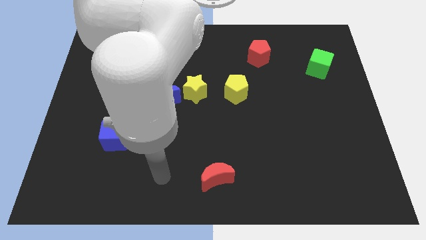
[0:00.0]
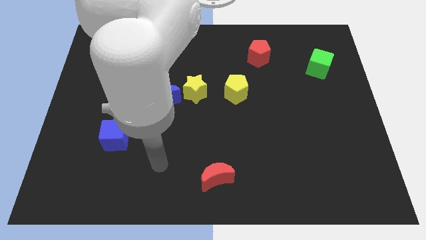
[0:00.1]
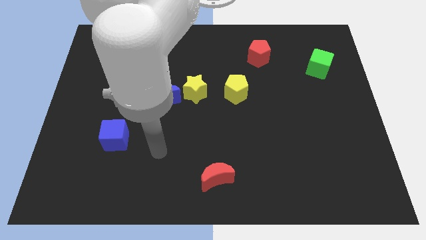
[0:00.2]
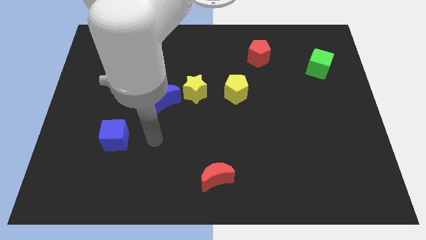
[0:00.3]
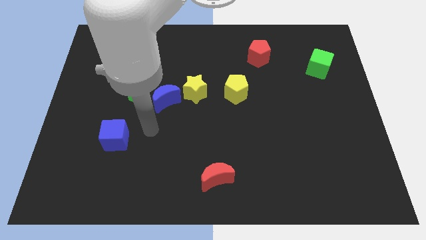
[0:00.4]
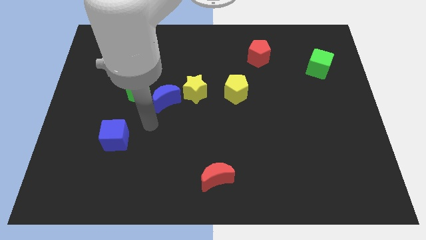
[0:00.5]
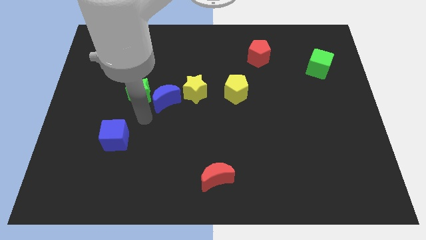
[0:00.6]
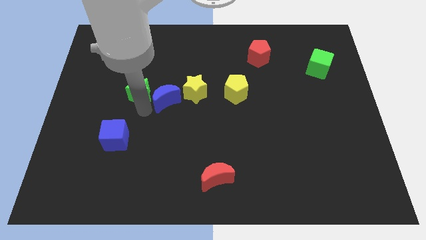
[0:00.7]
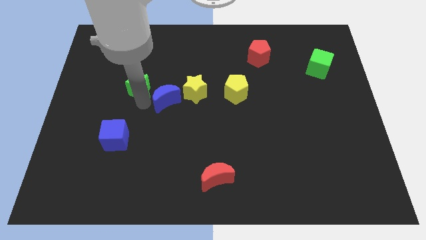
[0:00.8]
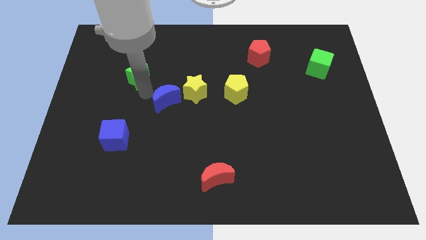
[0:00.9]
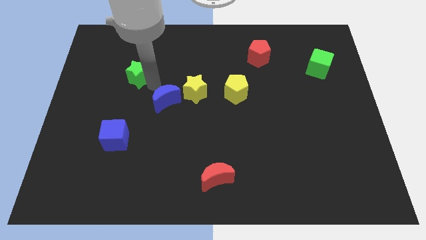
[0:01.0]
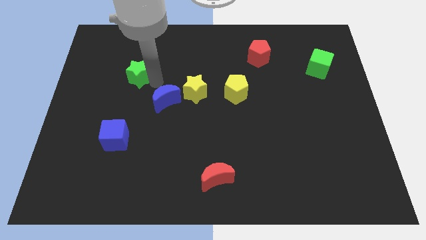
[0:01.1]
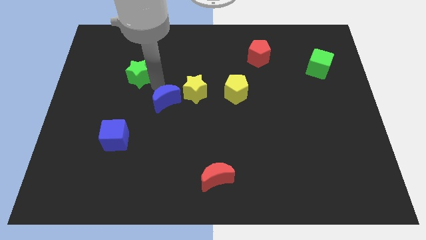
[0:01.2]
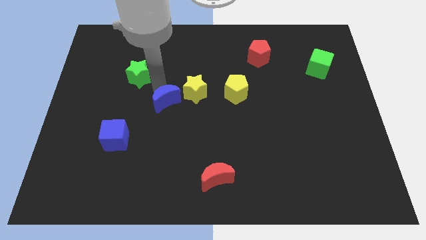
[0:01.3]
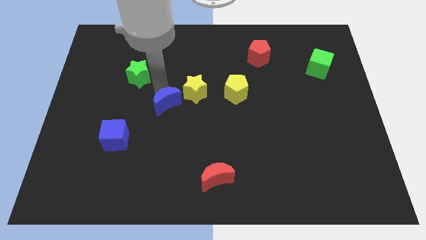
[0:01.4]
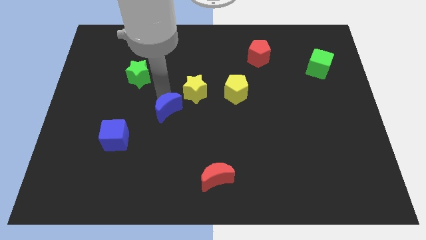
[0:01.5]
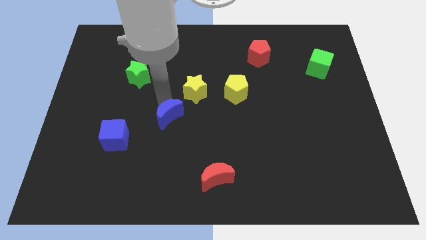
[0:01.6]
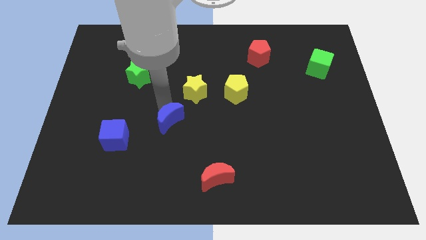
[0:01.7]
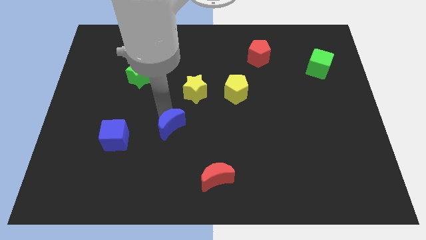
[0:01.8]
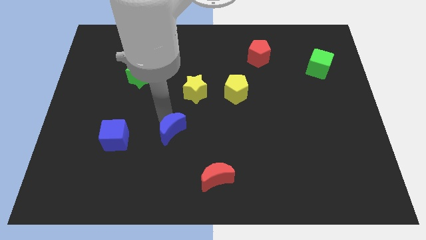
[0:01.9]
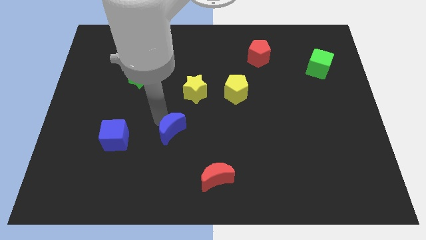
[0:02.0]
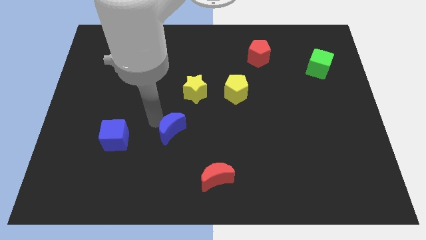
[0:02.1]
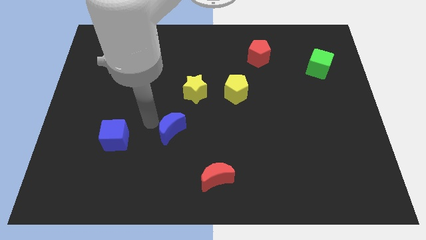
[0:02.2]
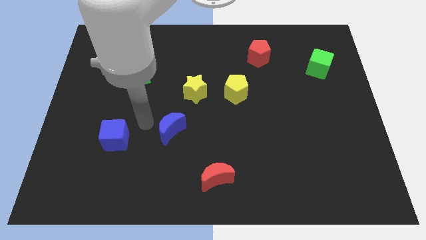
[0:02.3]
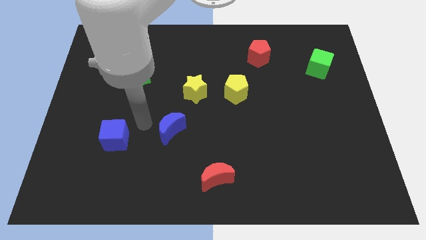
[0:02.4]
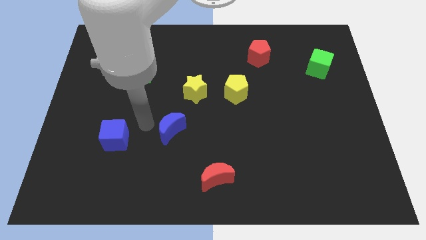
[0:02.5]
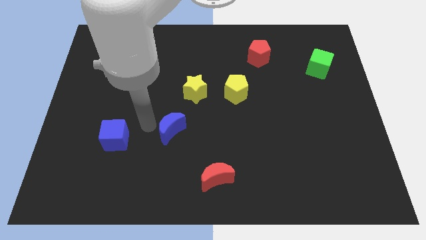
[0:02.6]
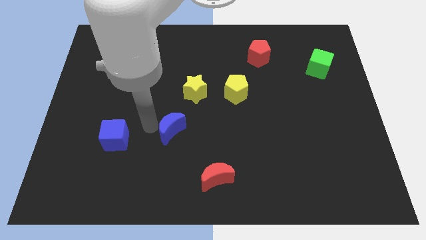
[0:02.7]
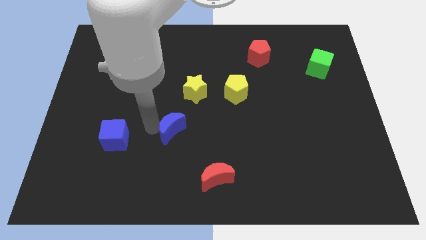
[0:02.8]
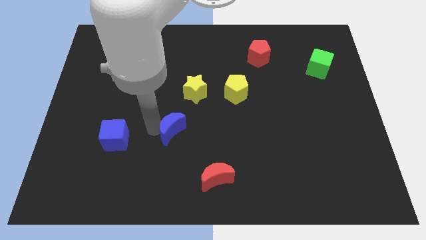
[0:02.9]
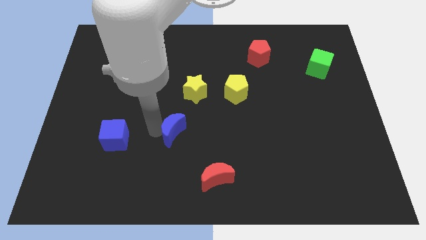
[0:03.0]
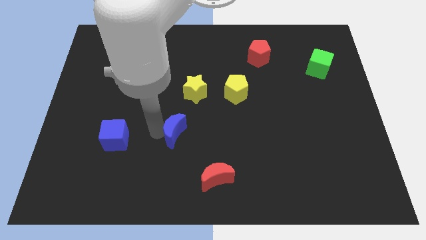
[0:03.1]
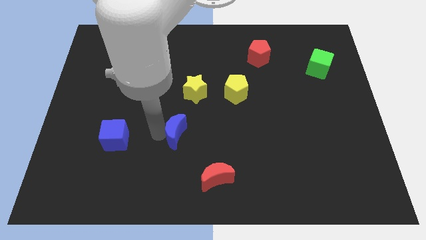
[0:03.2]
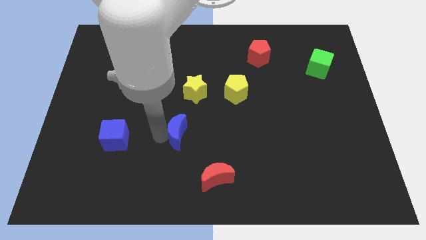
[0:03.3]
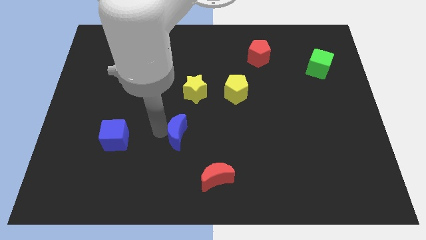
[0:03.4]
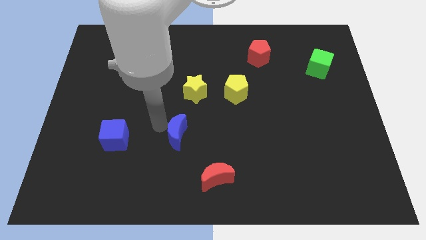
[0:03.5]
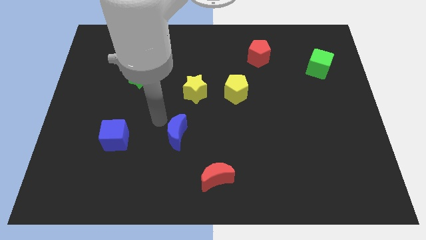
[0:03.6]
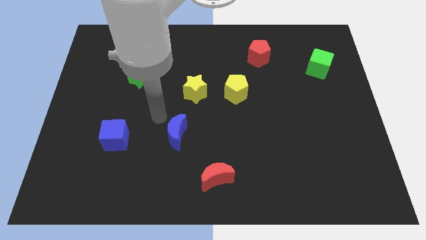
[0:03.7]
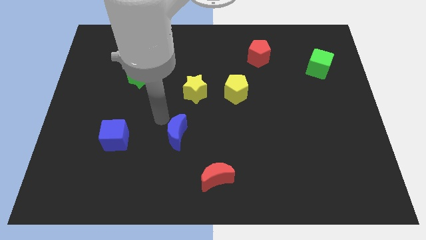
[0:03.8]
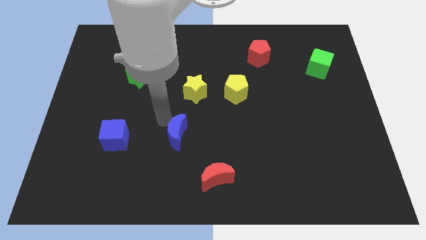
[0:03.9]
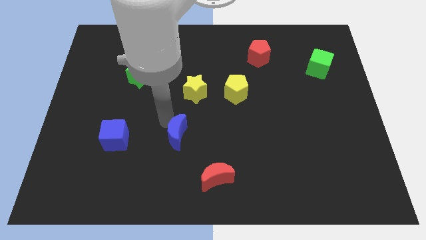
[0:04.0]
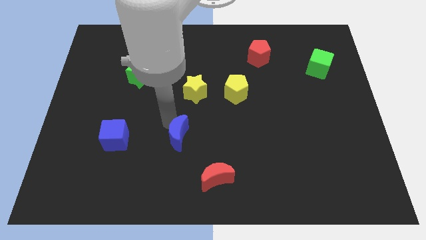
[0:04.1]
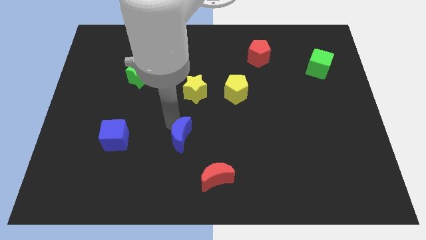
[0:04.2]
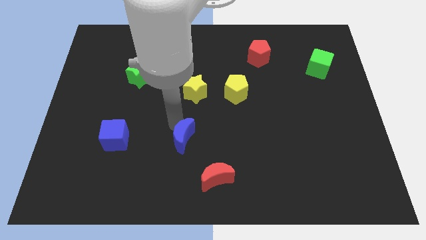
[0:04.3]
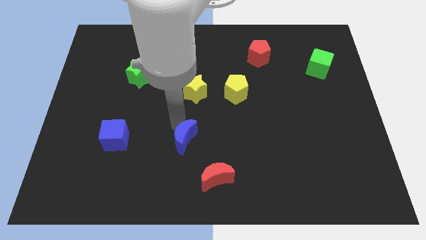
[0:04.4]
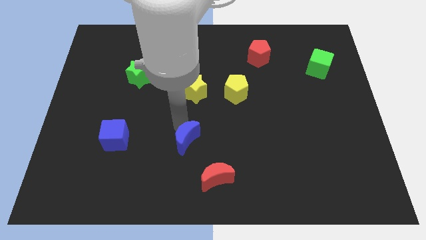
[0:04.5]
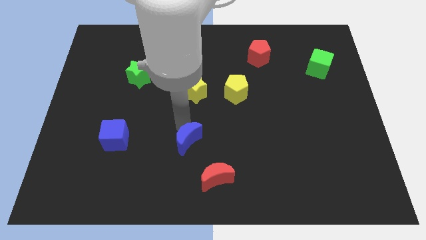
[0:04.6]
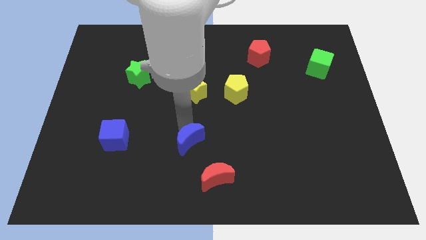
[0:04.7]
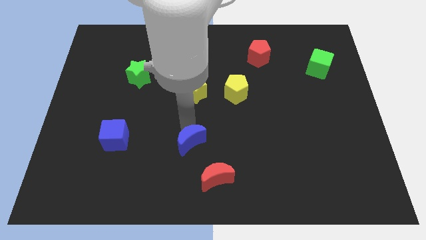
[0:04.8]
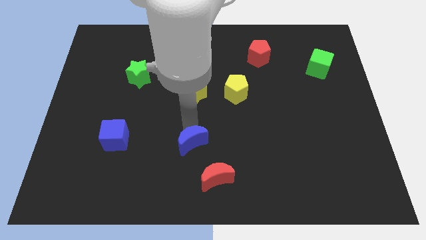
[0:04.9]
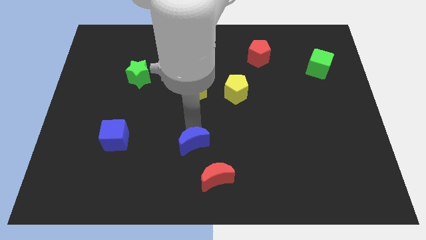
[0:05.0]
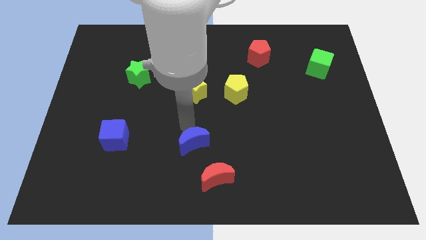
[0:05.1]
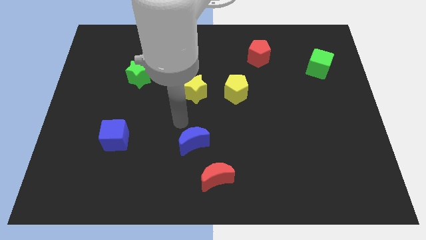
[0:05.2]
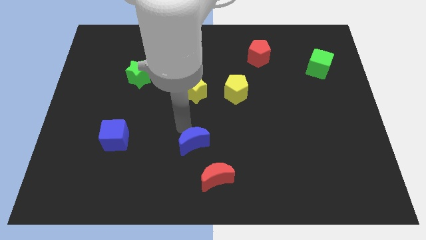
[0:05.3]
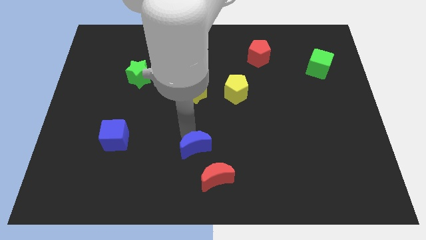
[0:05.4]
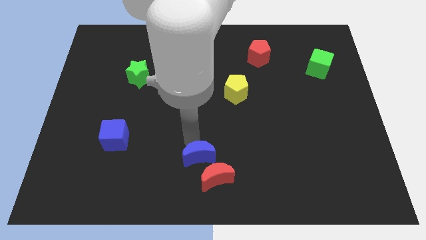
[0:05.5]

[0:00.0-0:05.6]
put the blue moon close to the red moon

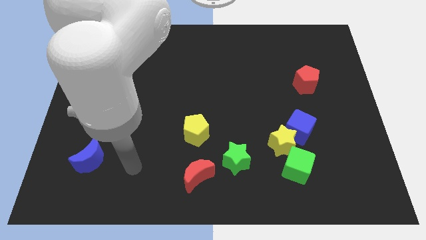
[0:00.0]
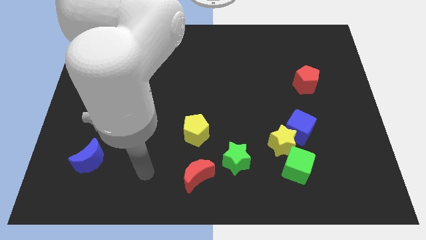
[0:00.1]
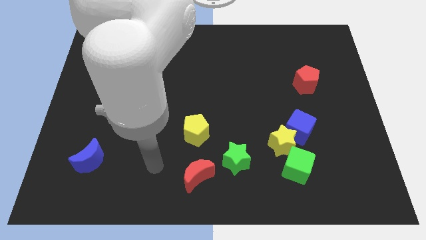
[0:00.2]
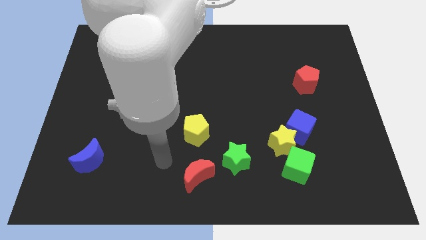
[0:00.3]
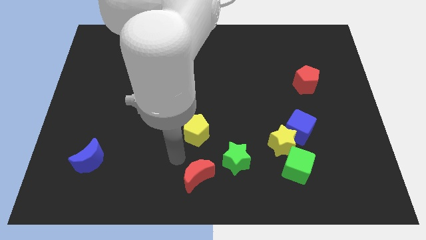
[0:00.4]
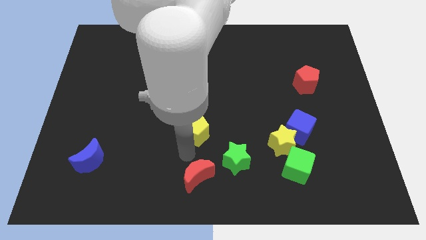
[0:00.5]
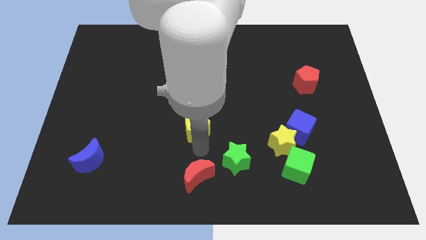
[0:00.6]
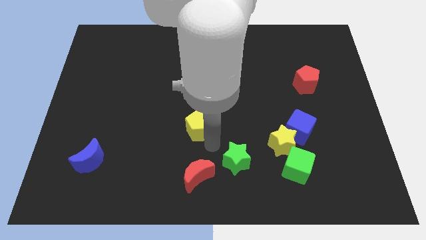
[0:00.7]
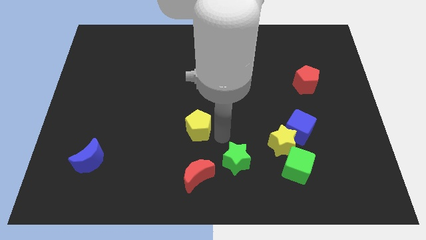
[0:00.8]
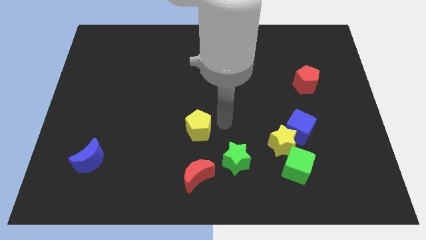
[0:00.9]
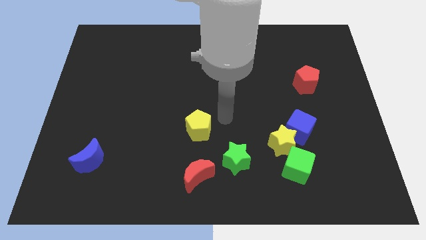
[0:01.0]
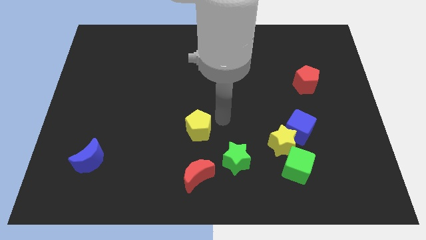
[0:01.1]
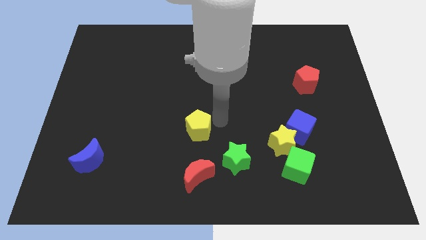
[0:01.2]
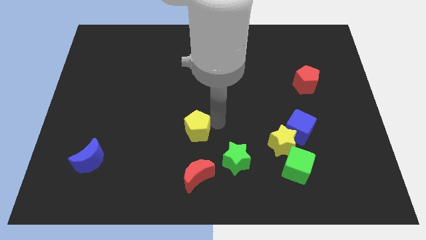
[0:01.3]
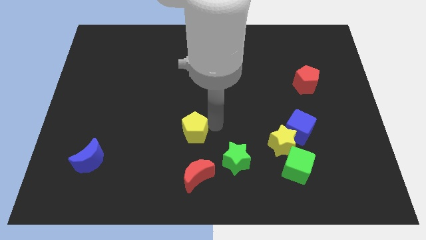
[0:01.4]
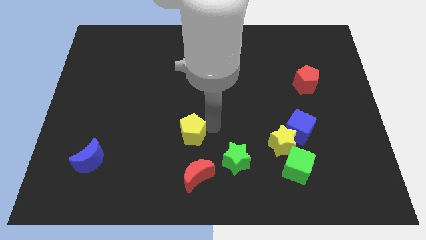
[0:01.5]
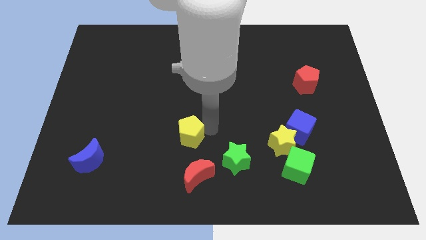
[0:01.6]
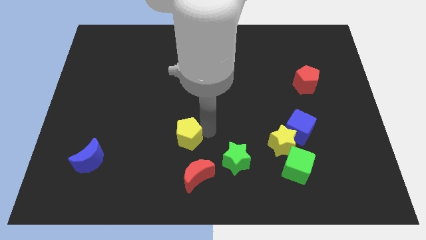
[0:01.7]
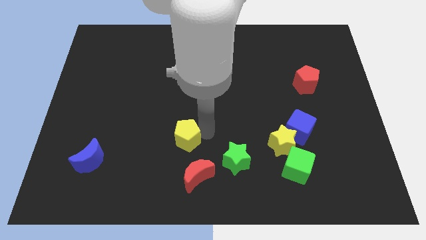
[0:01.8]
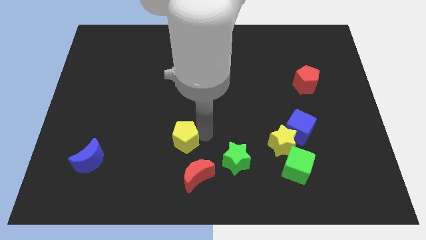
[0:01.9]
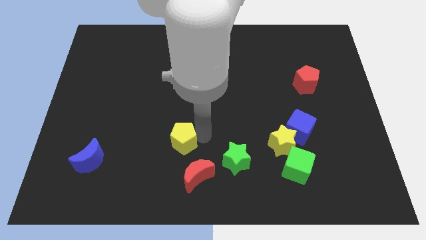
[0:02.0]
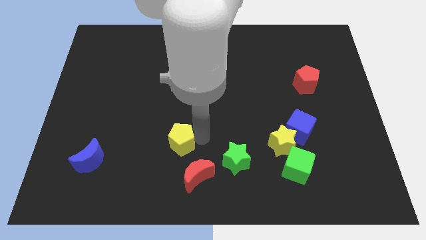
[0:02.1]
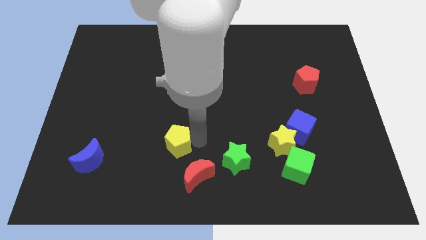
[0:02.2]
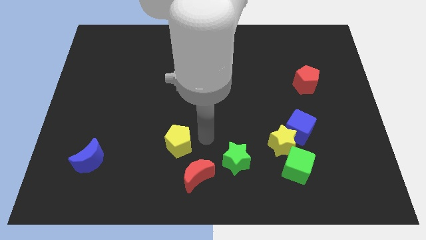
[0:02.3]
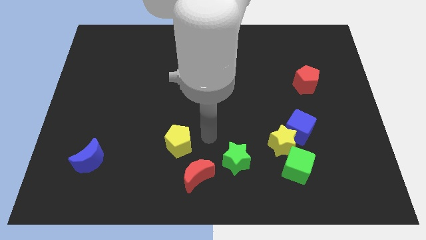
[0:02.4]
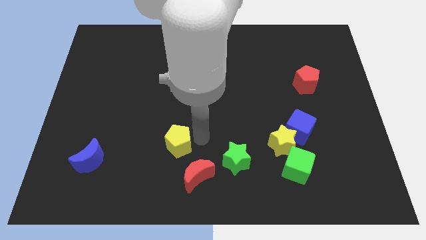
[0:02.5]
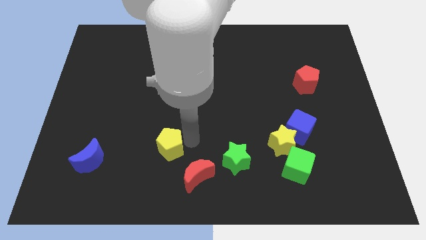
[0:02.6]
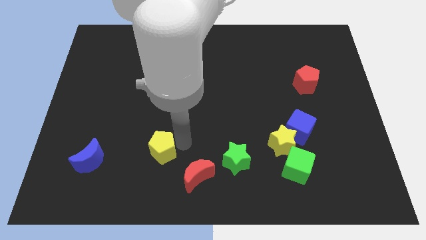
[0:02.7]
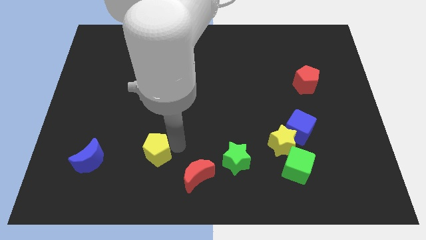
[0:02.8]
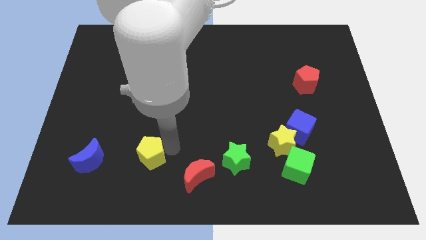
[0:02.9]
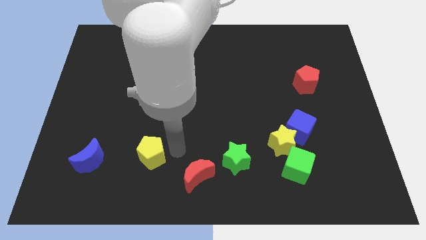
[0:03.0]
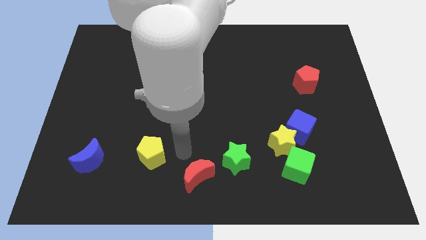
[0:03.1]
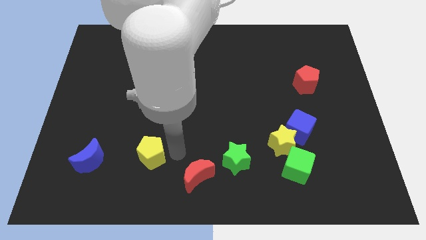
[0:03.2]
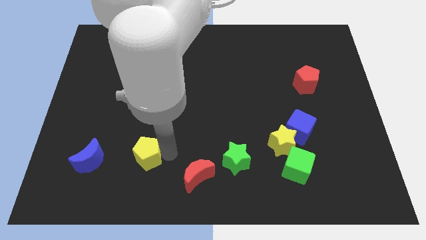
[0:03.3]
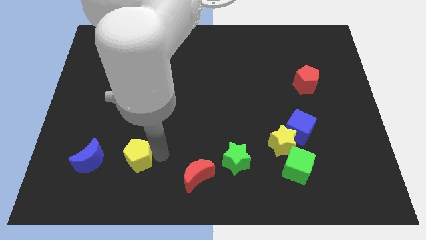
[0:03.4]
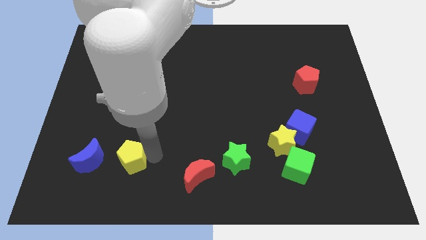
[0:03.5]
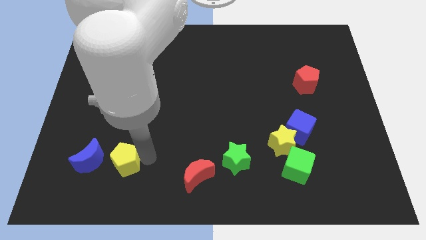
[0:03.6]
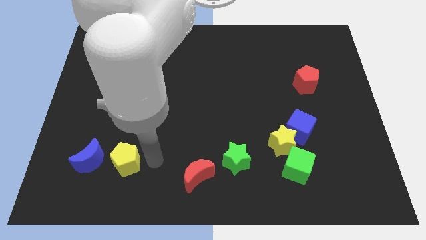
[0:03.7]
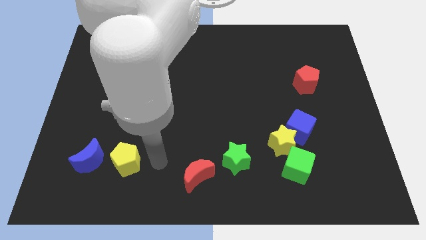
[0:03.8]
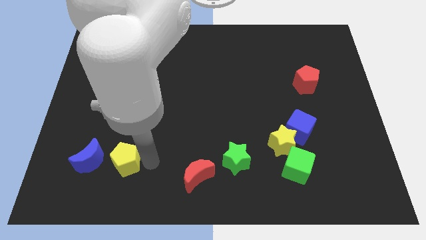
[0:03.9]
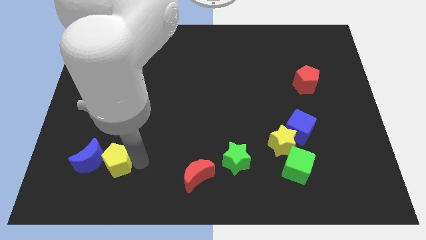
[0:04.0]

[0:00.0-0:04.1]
push the yellow pentagon towards the blue moon
